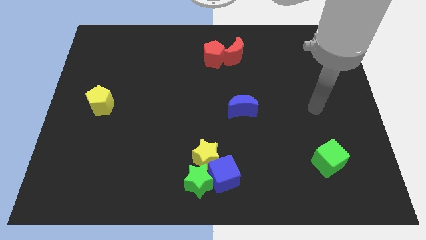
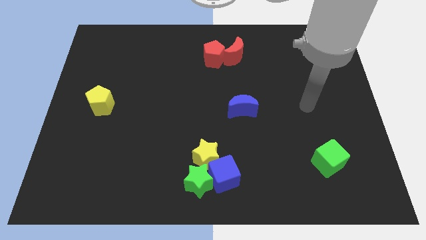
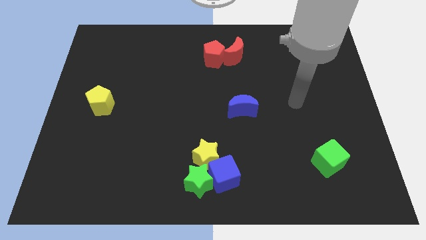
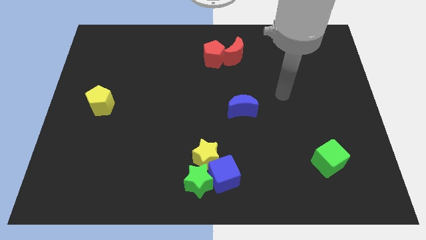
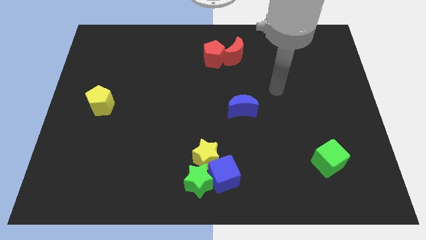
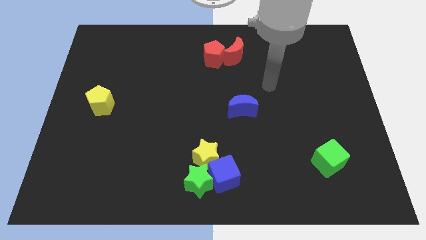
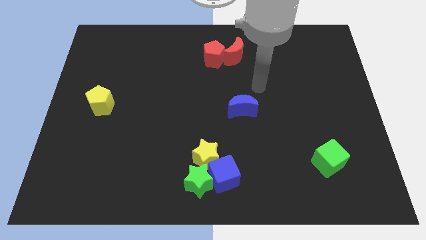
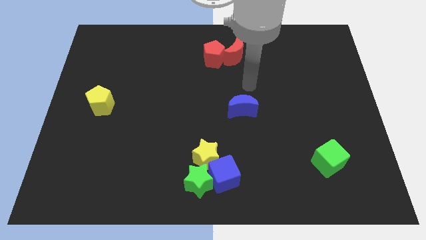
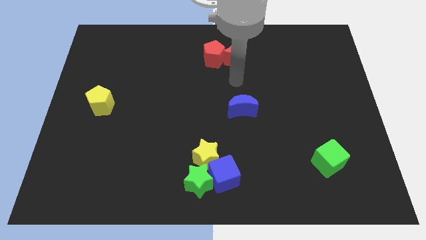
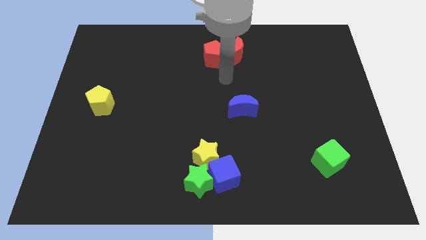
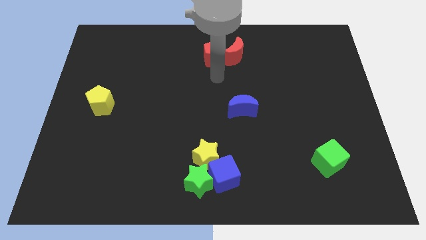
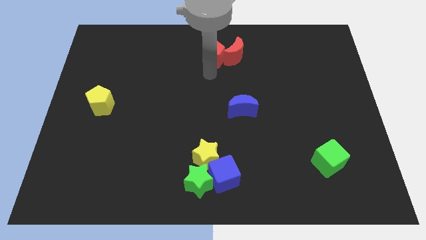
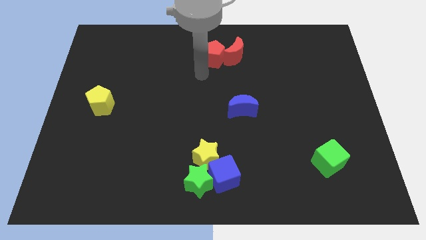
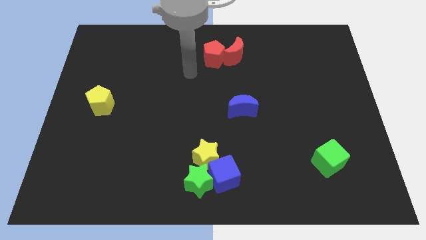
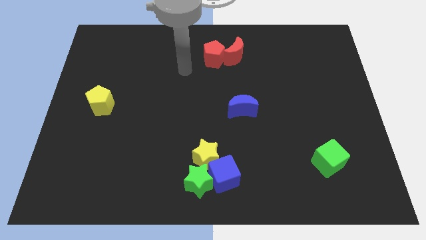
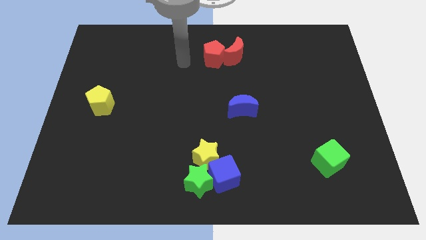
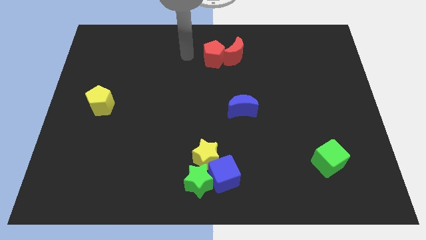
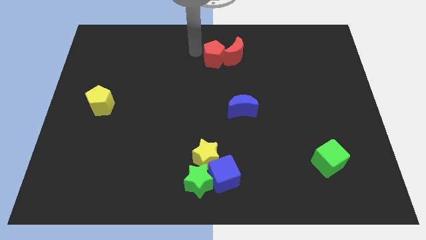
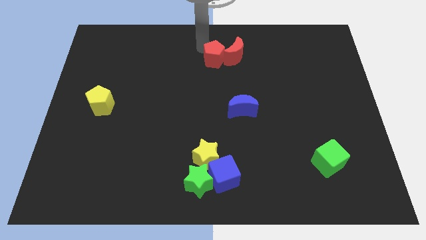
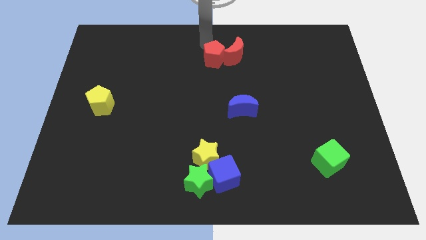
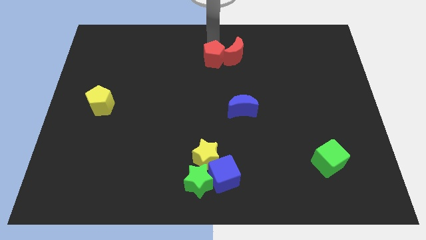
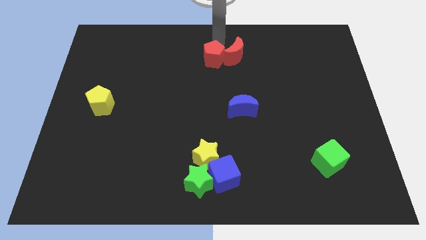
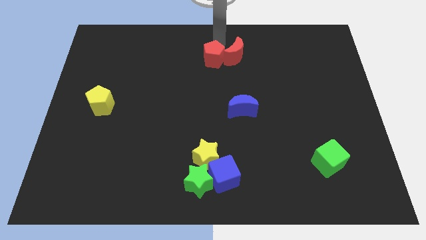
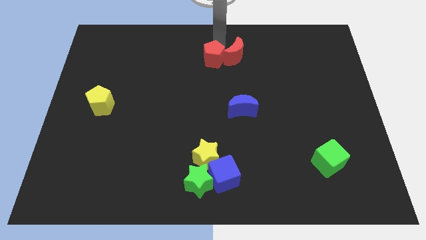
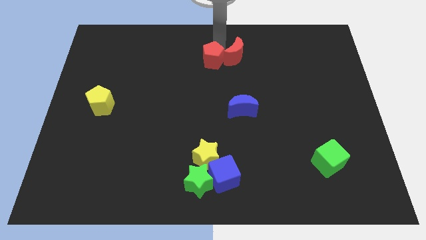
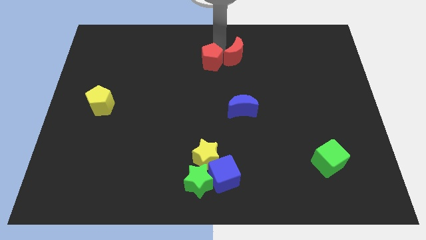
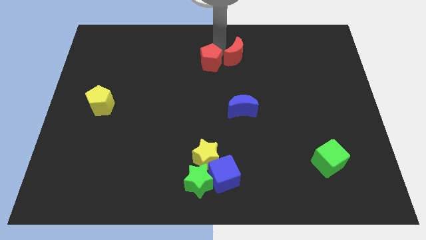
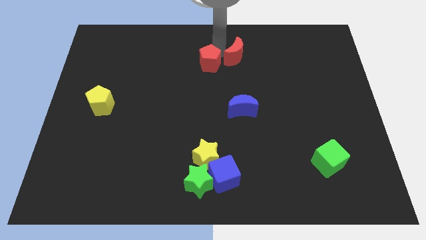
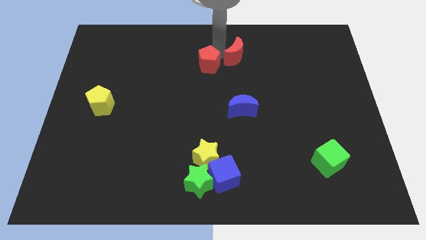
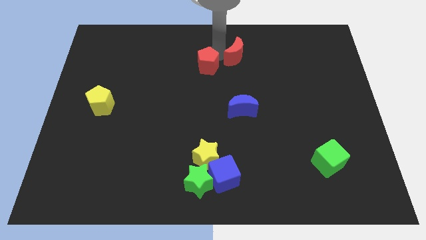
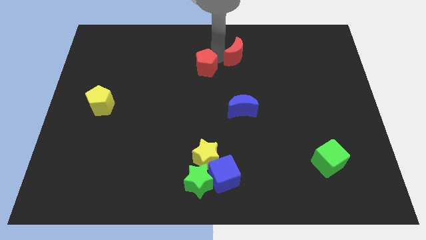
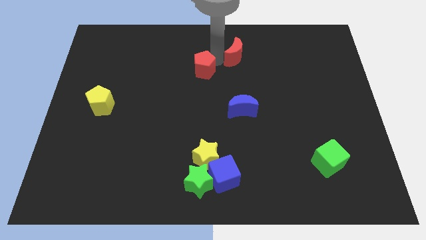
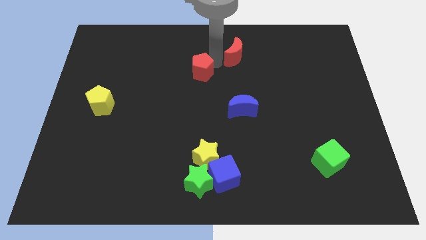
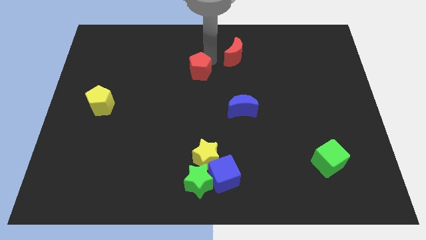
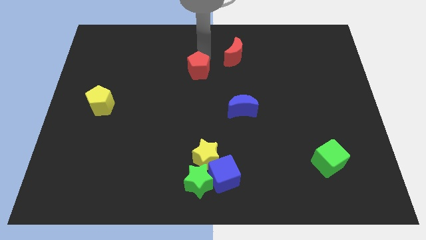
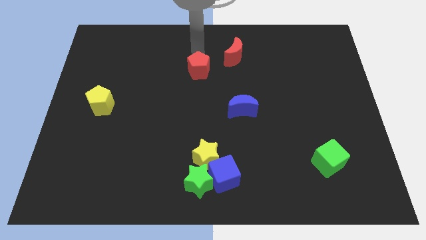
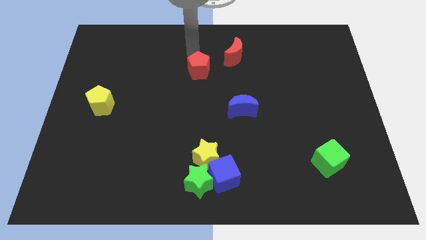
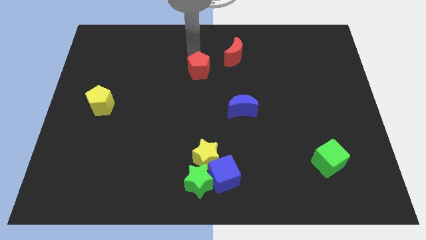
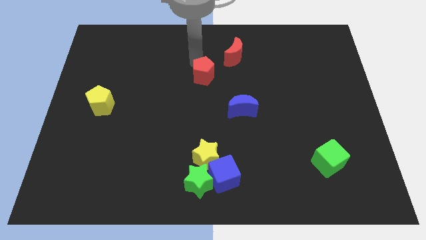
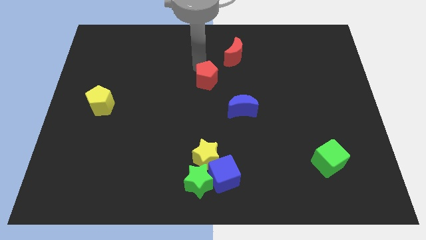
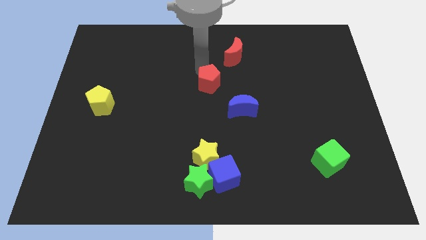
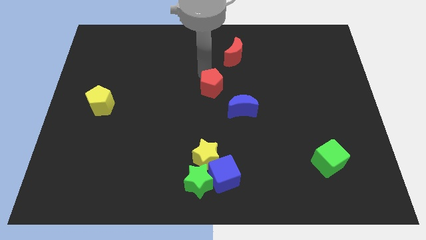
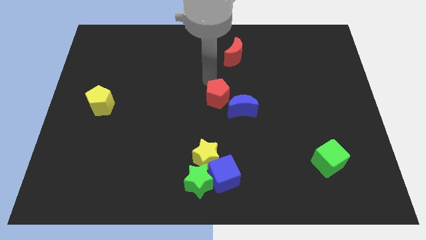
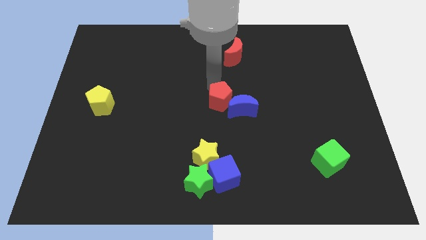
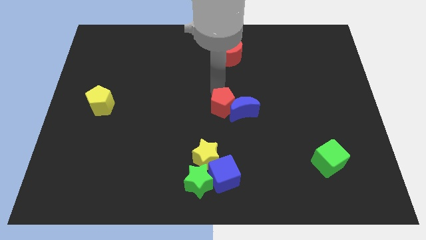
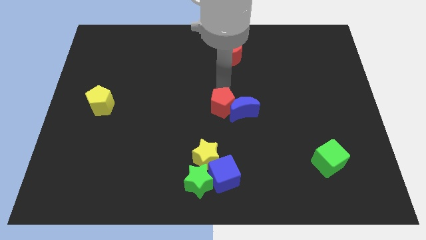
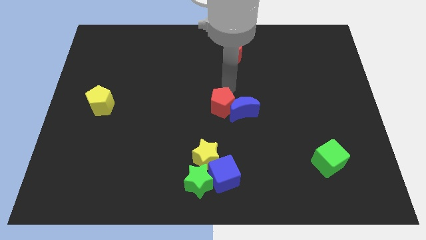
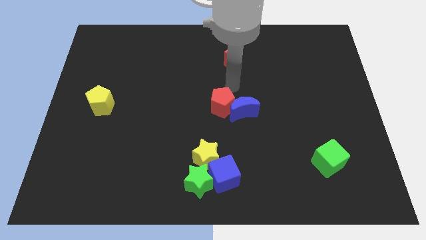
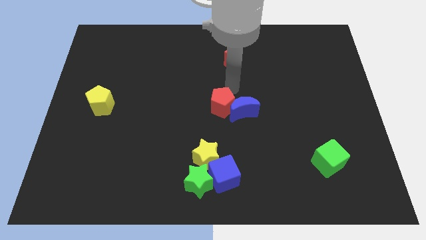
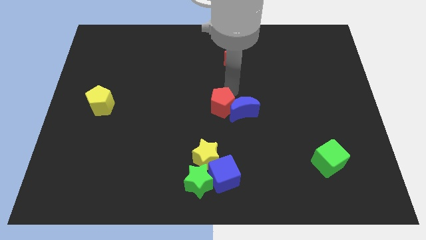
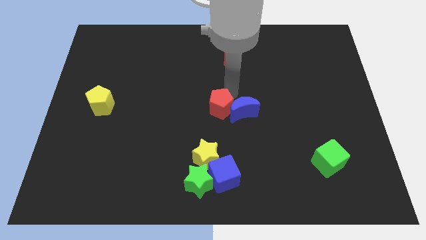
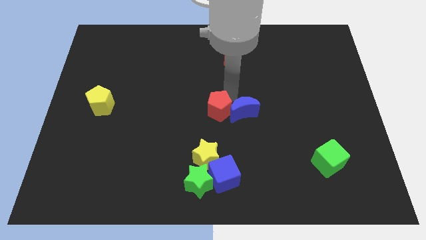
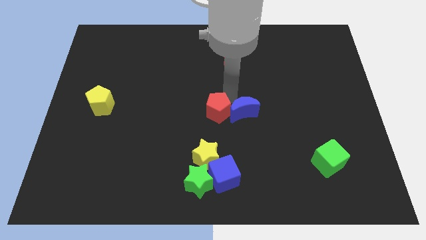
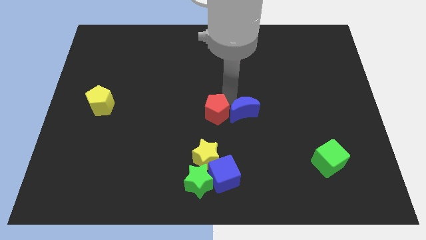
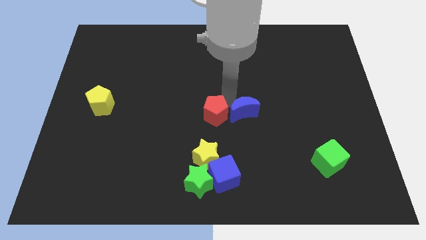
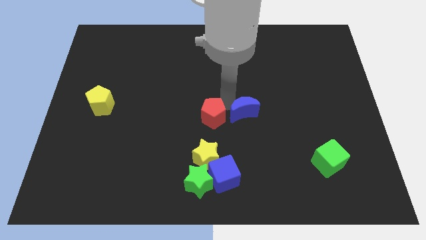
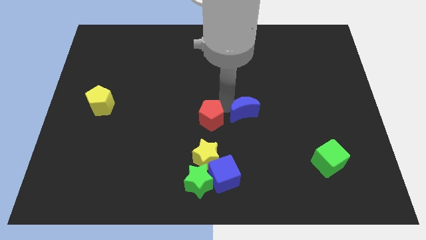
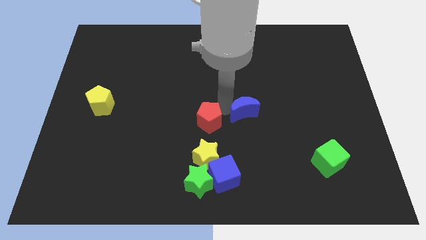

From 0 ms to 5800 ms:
move the red pentagon to the top side of the green star
